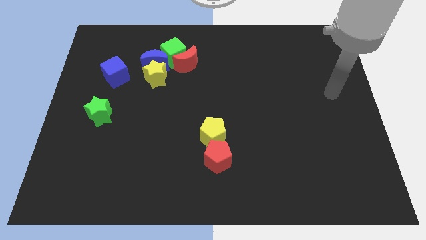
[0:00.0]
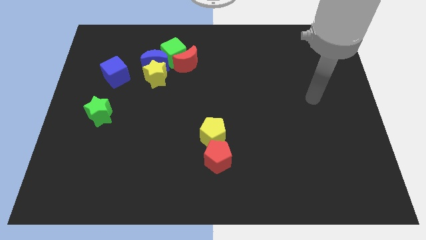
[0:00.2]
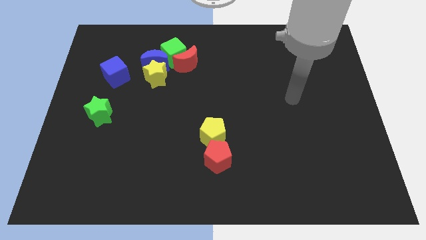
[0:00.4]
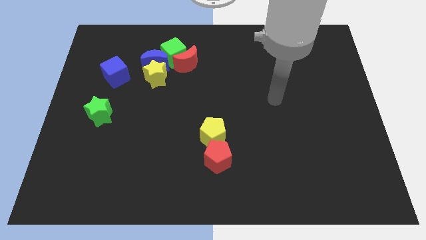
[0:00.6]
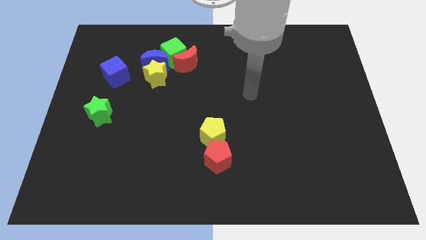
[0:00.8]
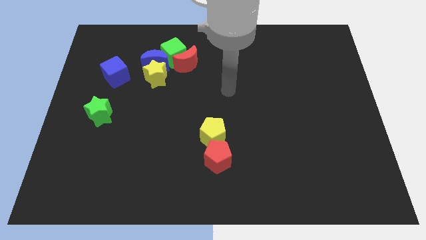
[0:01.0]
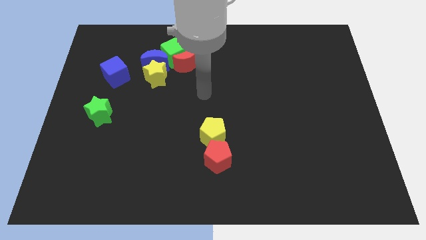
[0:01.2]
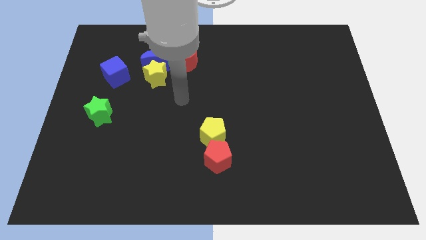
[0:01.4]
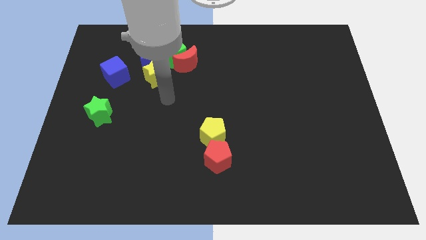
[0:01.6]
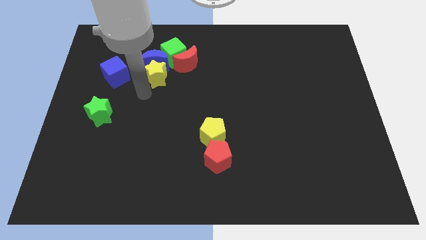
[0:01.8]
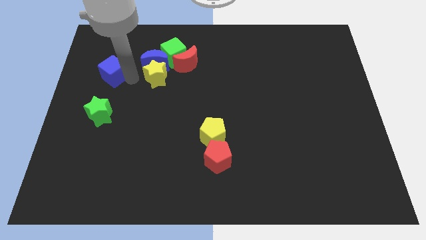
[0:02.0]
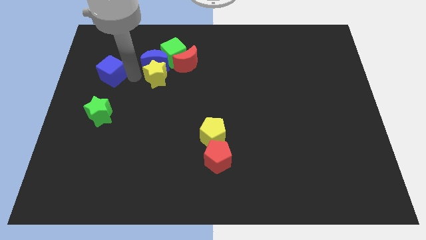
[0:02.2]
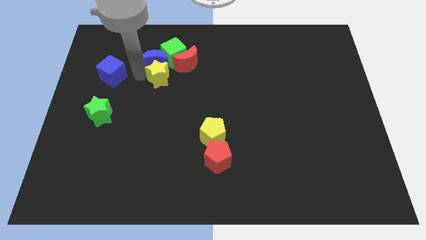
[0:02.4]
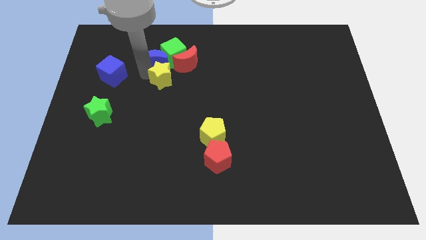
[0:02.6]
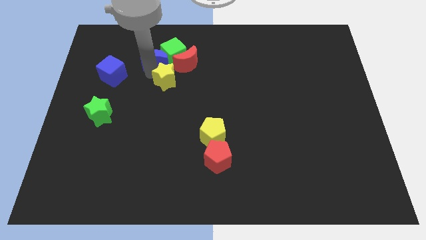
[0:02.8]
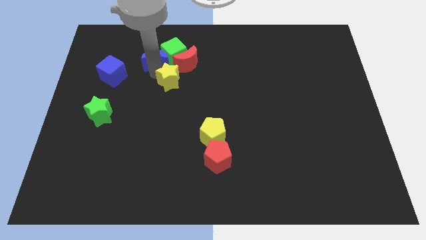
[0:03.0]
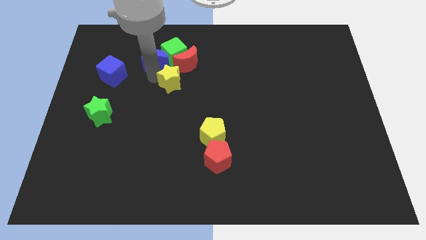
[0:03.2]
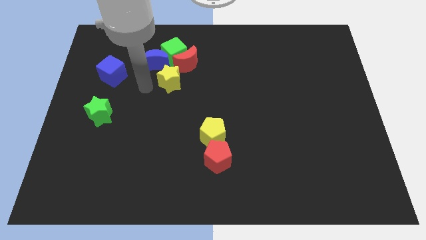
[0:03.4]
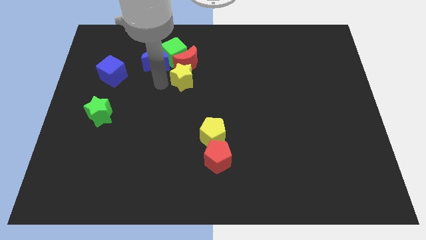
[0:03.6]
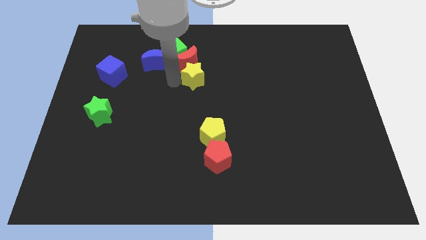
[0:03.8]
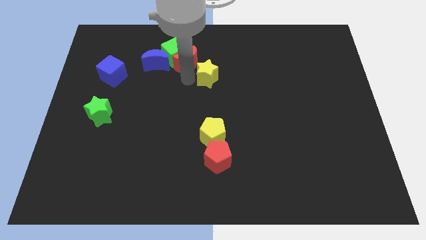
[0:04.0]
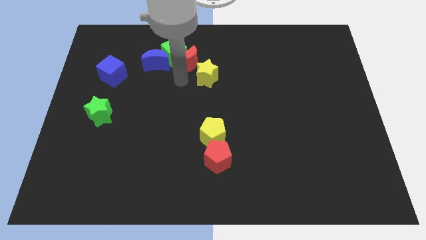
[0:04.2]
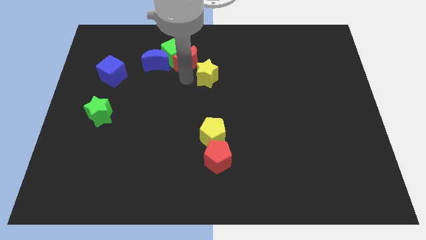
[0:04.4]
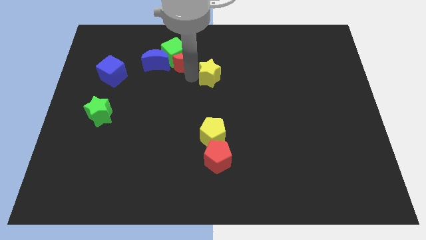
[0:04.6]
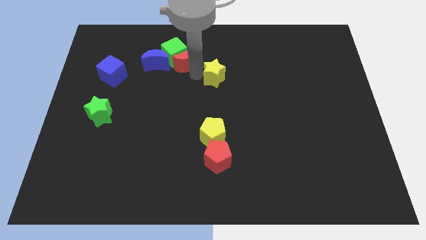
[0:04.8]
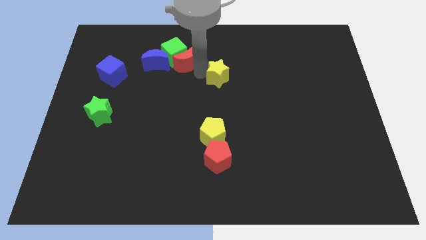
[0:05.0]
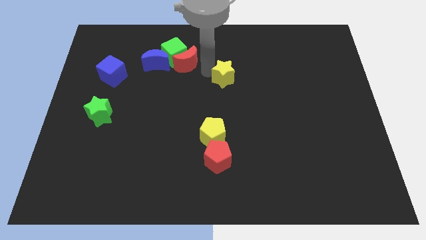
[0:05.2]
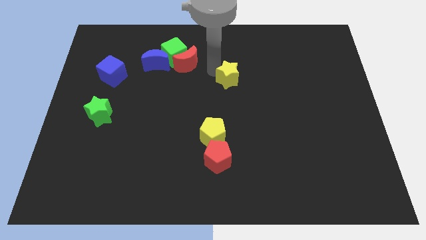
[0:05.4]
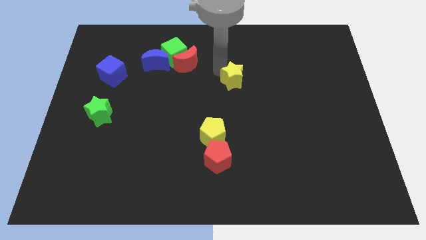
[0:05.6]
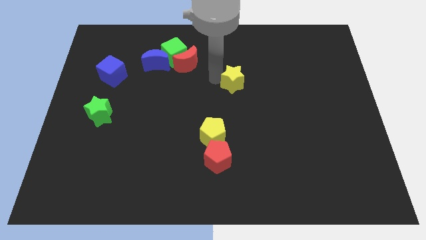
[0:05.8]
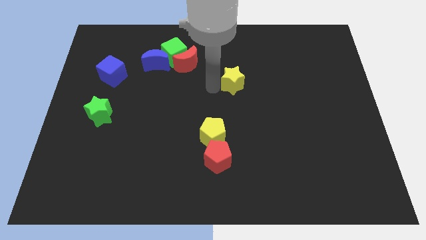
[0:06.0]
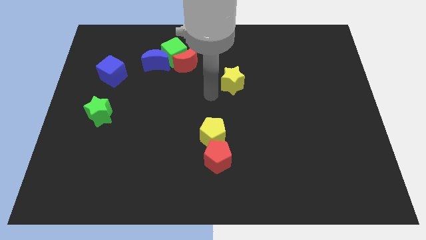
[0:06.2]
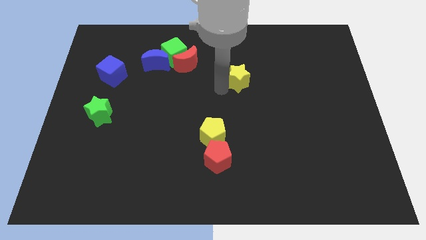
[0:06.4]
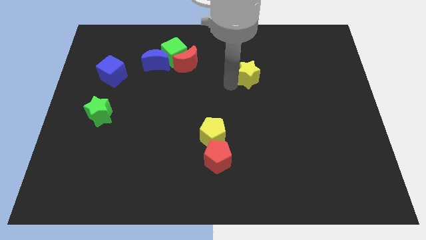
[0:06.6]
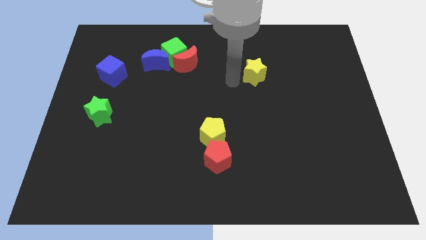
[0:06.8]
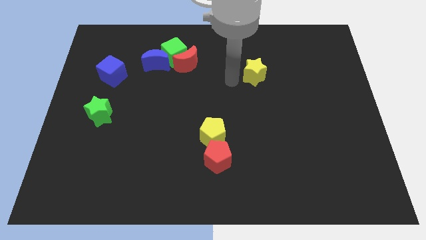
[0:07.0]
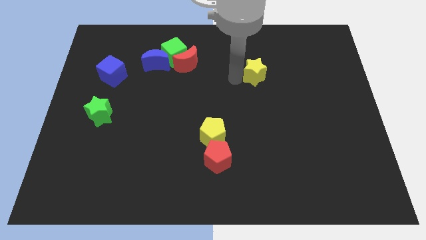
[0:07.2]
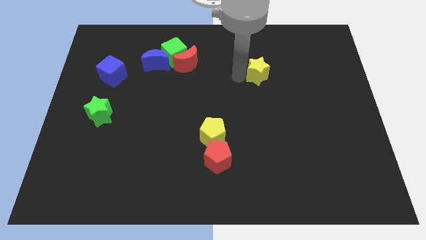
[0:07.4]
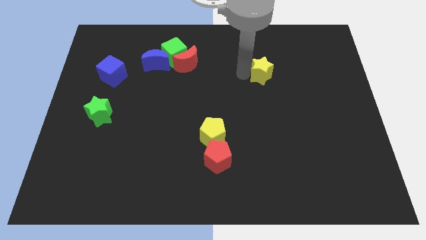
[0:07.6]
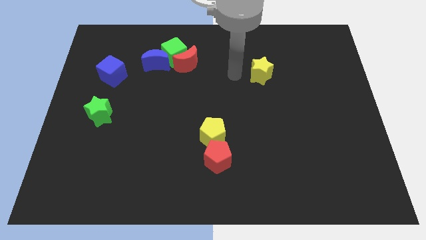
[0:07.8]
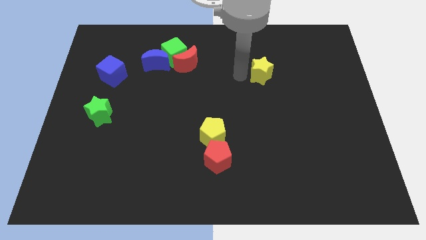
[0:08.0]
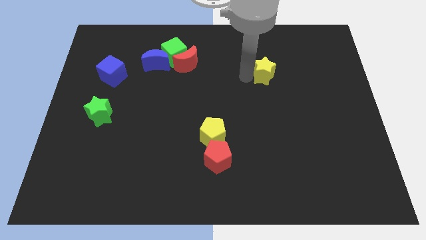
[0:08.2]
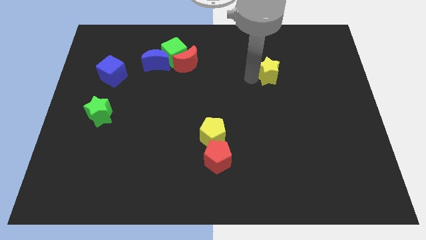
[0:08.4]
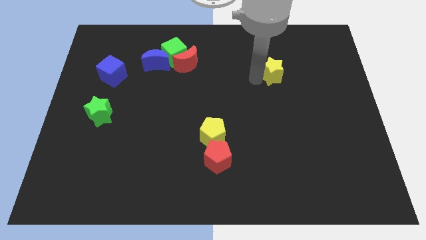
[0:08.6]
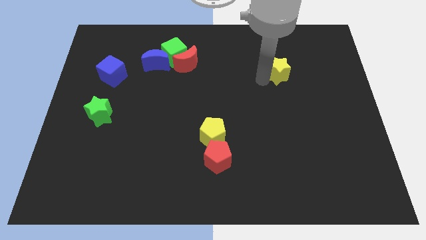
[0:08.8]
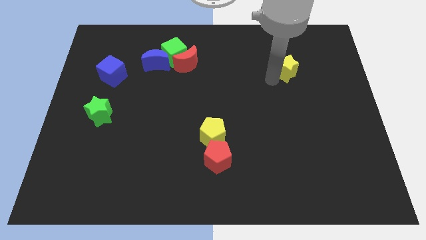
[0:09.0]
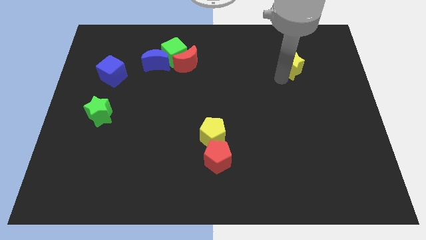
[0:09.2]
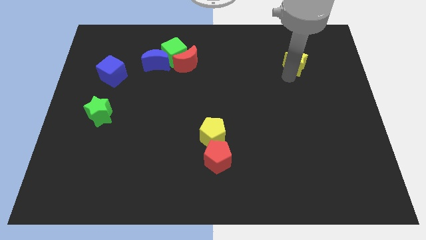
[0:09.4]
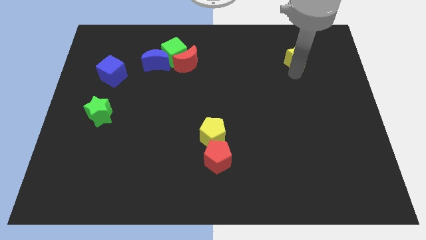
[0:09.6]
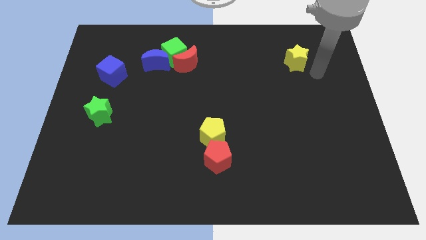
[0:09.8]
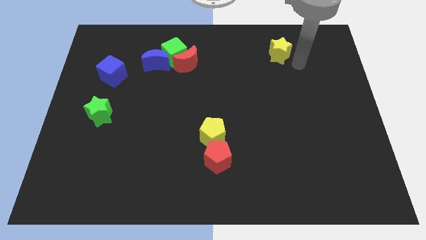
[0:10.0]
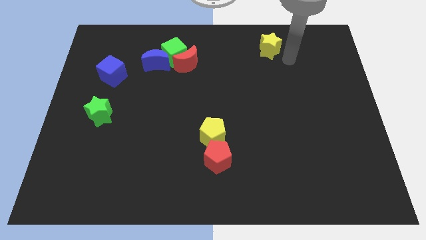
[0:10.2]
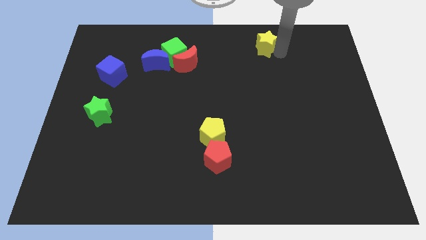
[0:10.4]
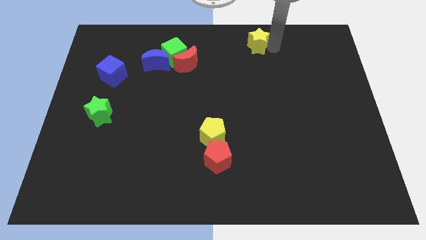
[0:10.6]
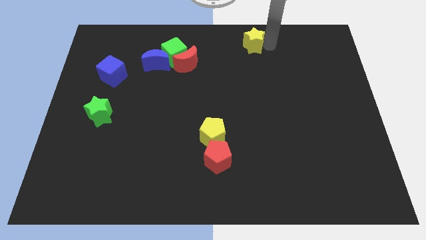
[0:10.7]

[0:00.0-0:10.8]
move the yellow star to the top side
